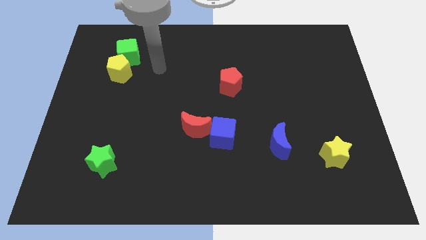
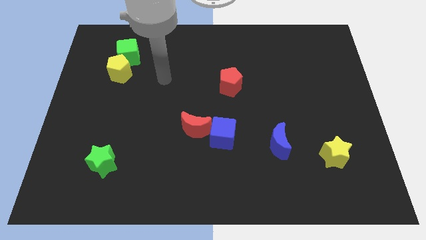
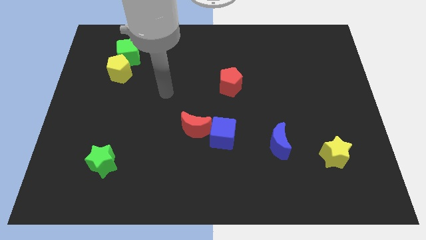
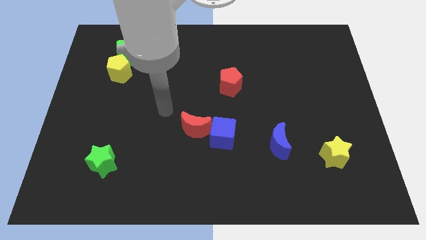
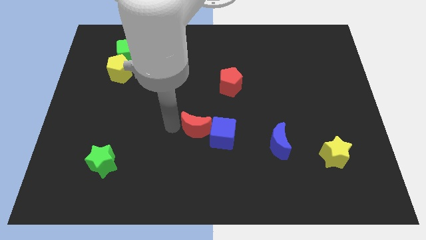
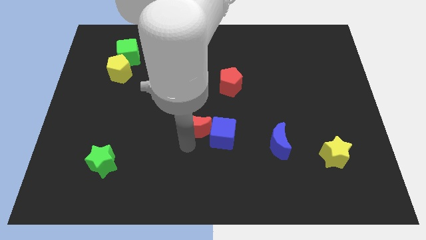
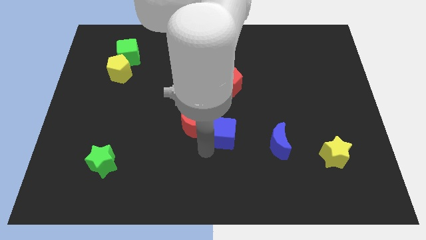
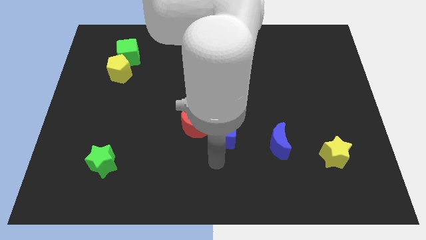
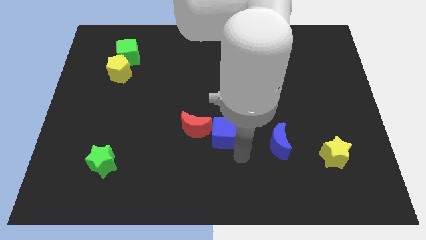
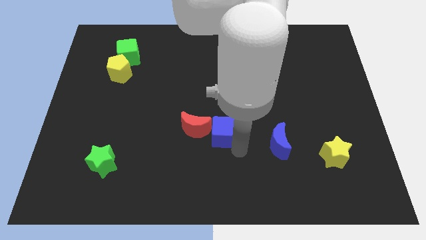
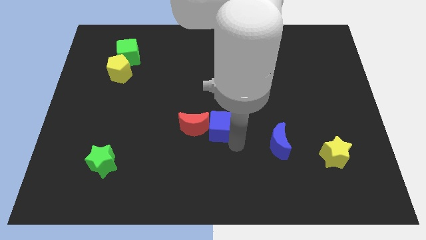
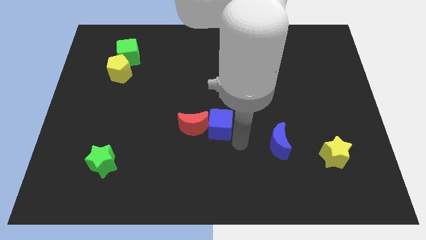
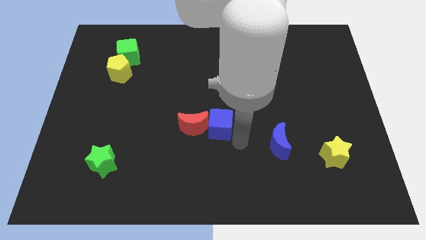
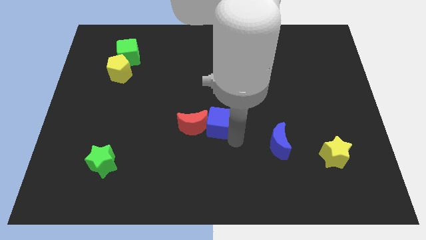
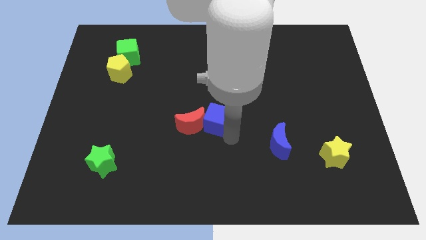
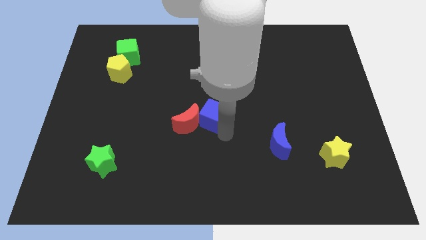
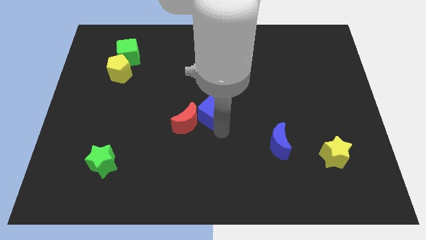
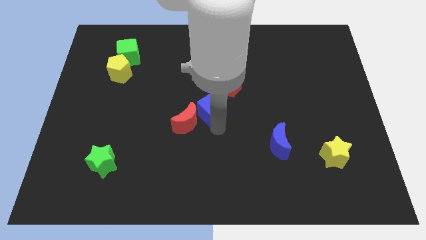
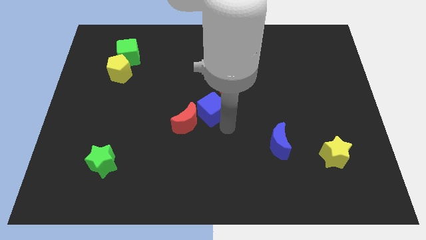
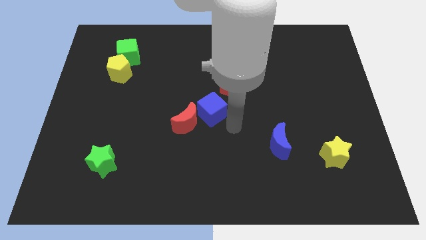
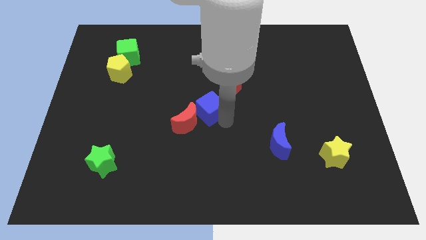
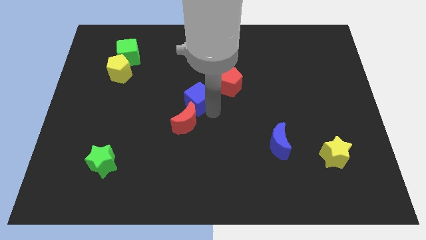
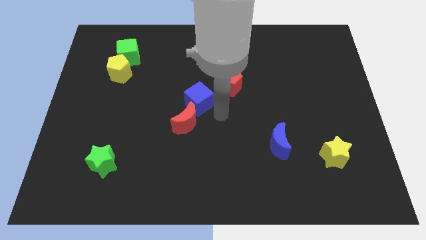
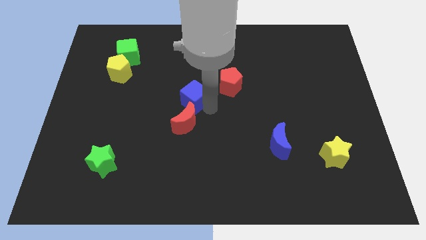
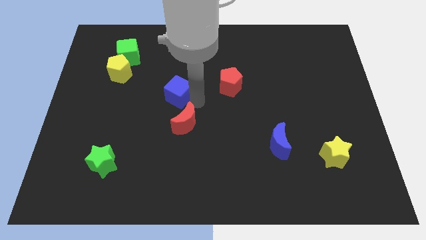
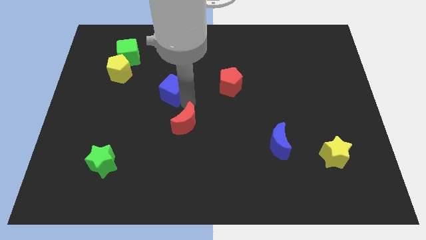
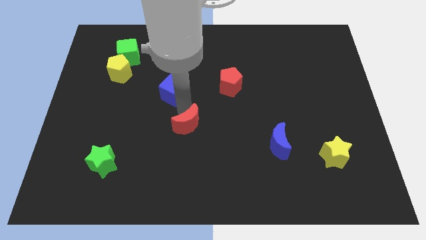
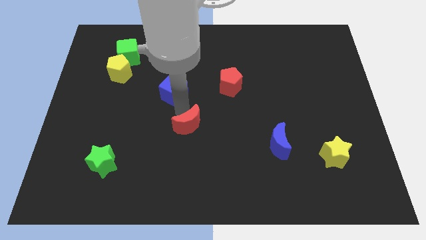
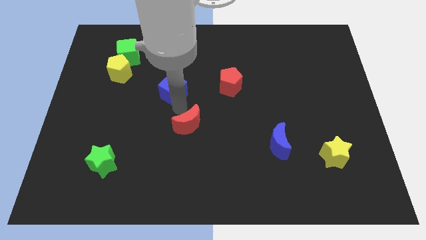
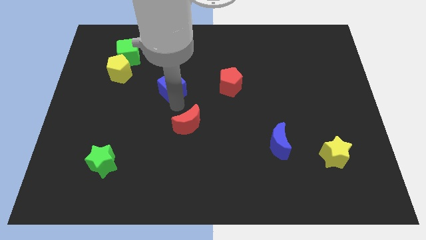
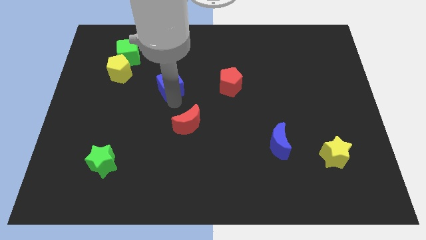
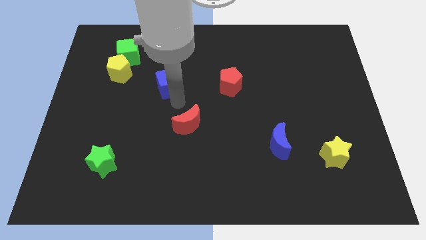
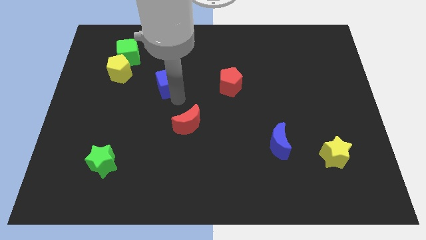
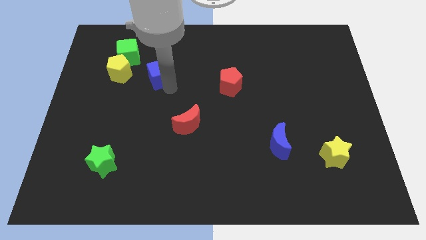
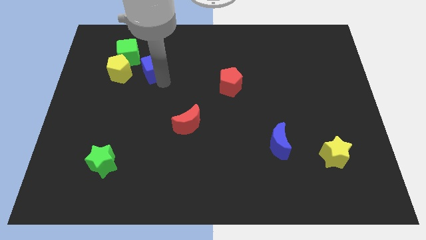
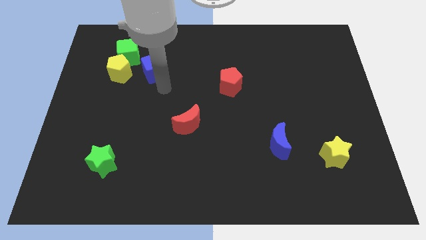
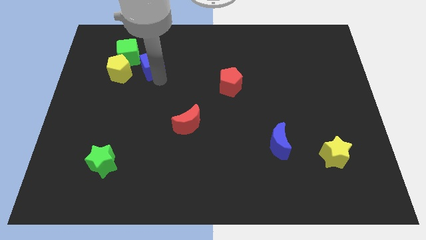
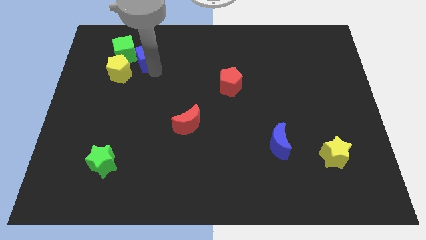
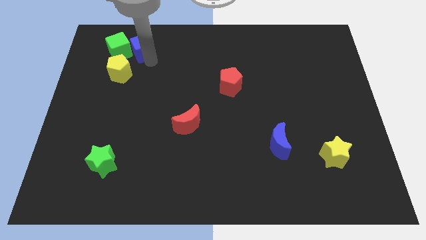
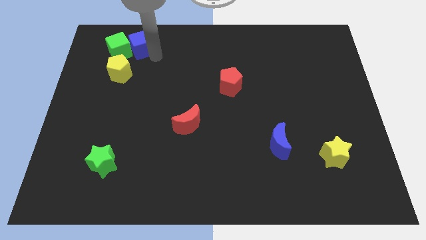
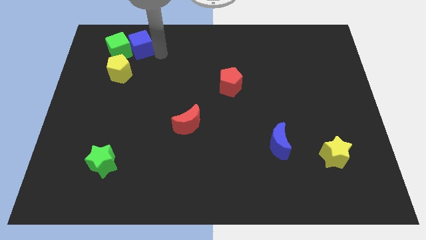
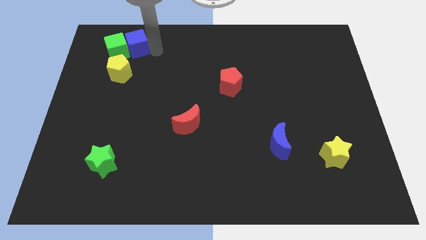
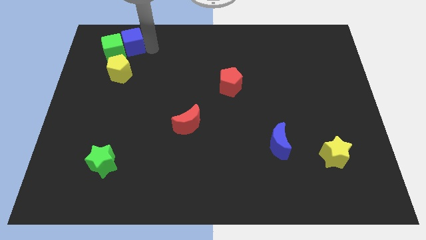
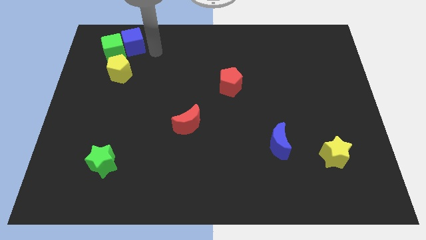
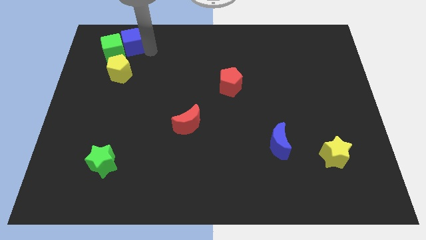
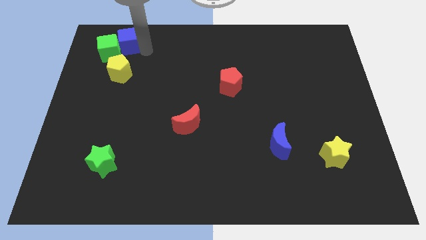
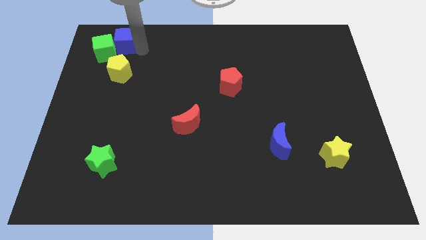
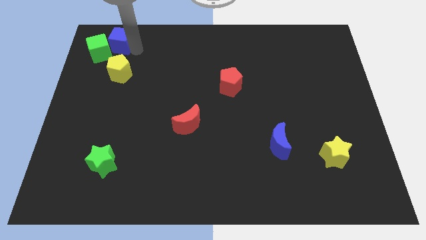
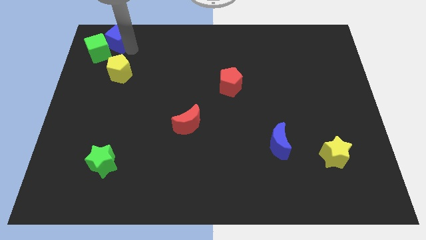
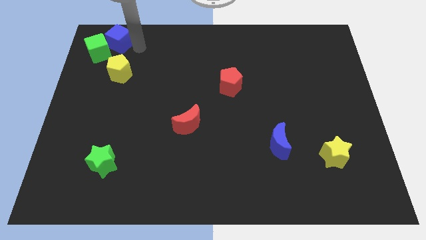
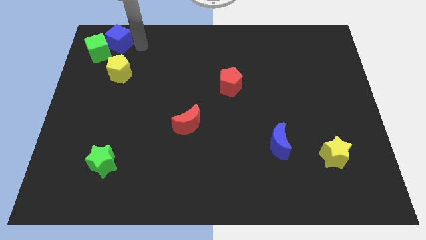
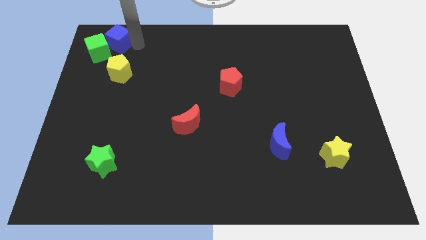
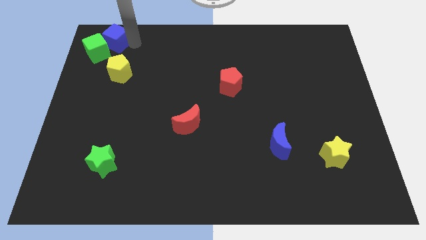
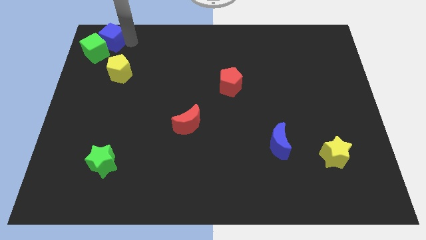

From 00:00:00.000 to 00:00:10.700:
slide the blue cube to the top left of the board

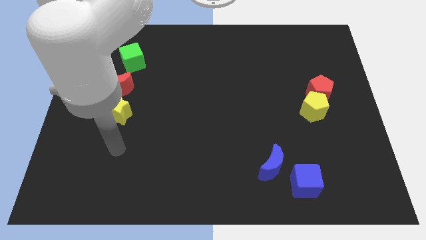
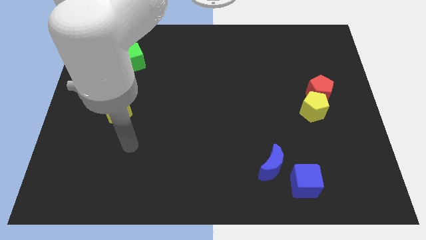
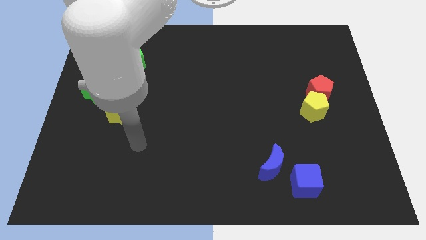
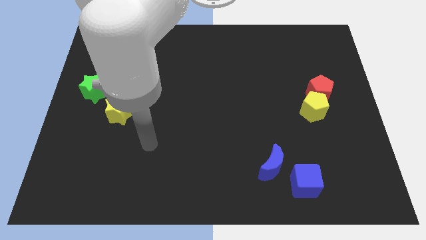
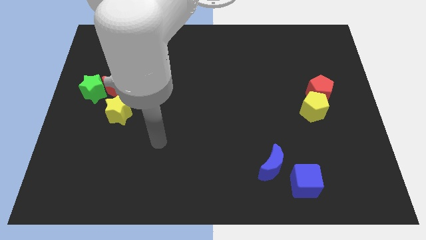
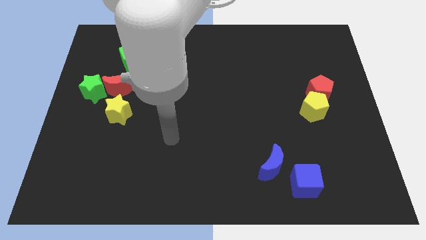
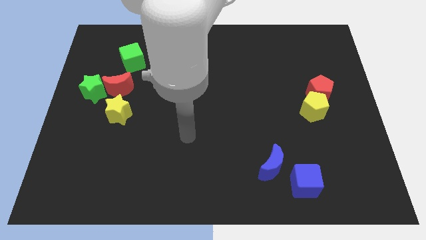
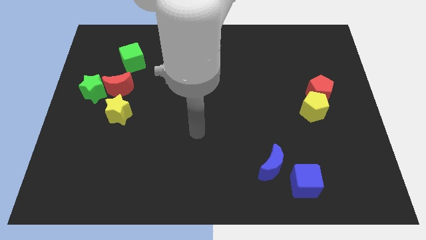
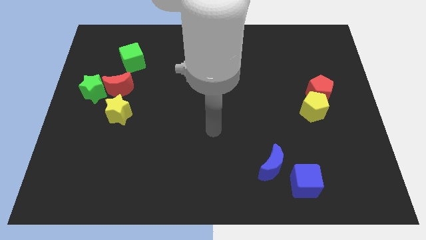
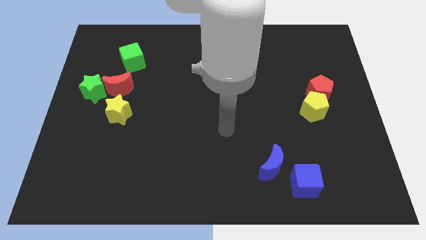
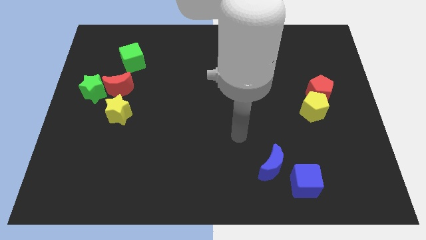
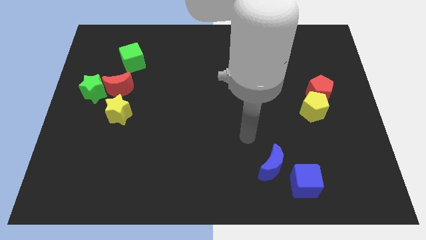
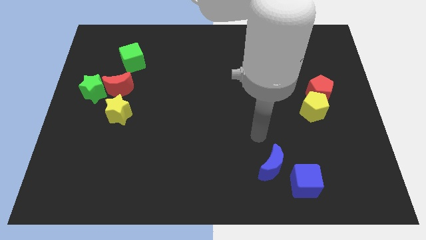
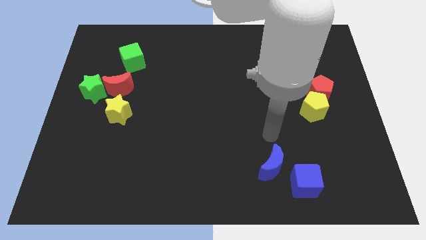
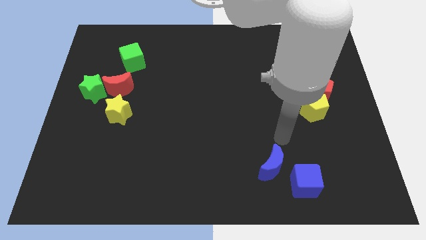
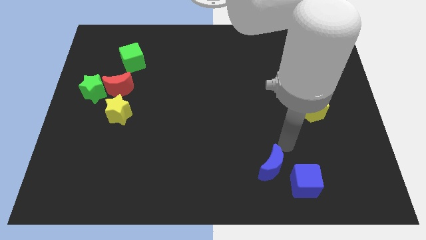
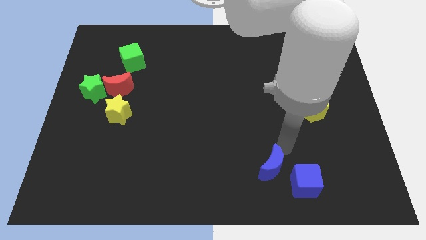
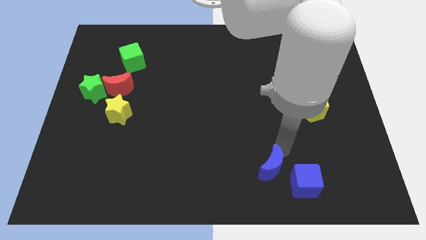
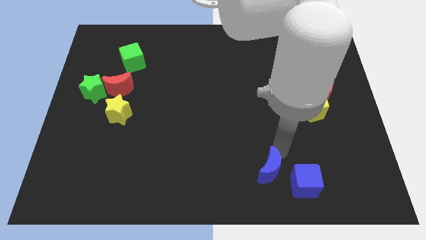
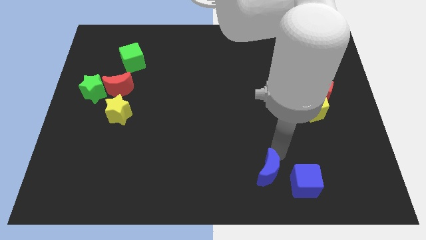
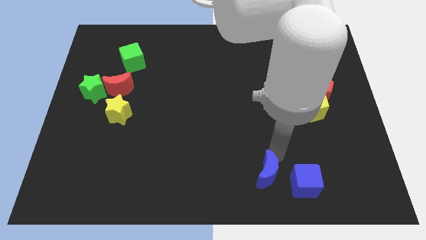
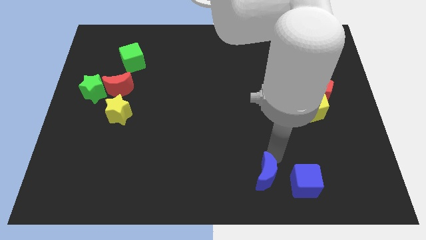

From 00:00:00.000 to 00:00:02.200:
put the blue moon to the bottom
